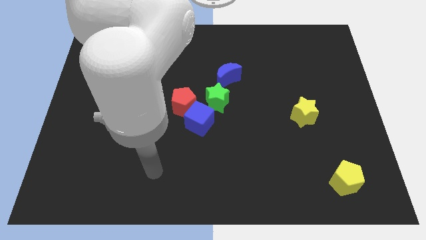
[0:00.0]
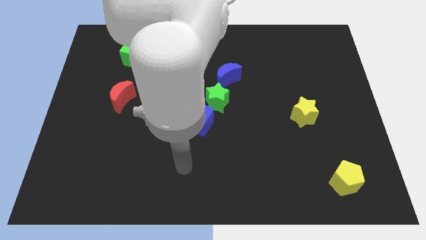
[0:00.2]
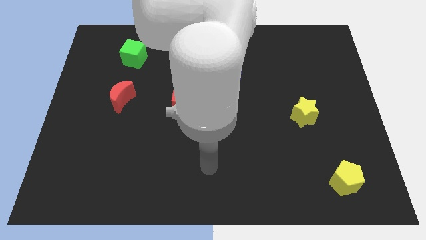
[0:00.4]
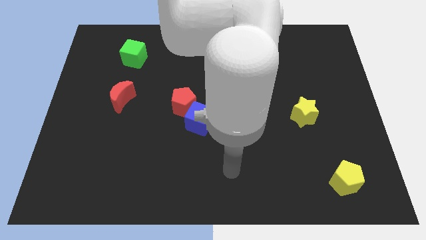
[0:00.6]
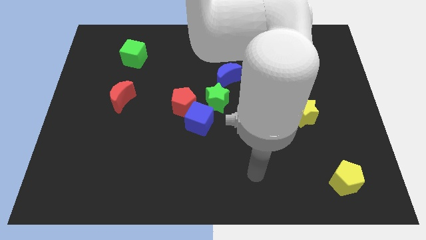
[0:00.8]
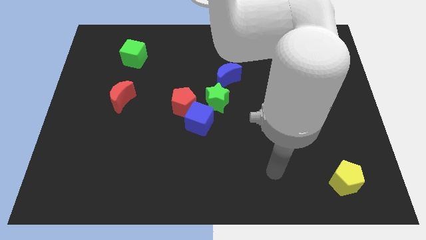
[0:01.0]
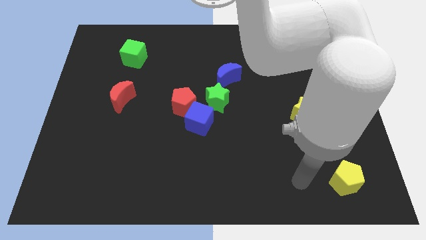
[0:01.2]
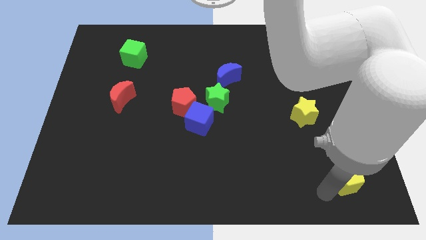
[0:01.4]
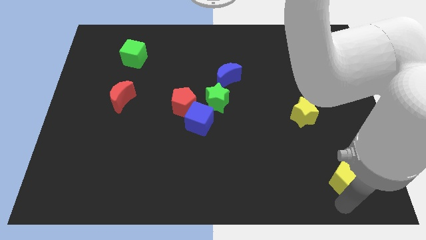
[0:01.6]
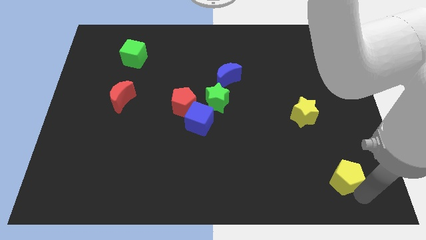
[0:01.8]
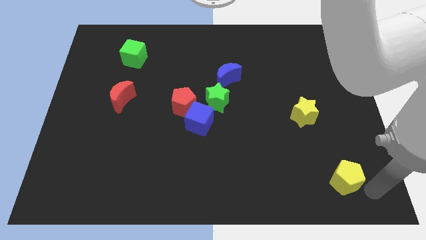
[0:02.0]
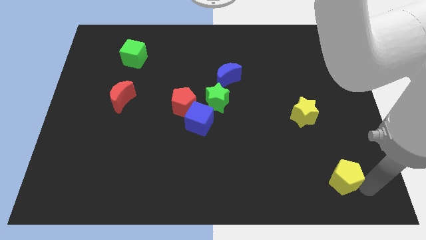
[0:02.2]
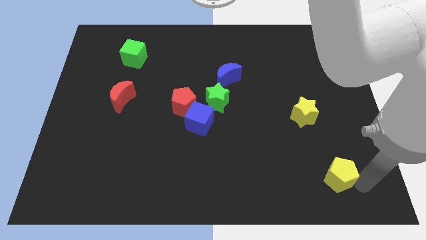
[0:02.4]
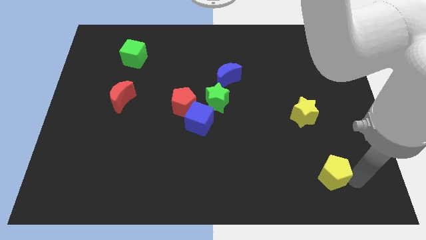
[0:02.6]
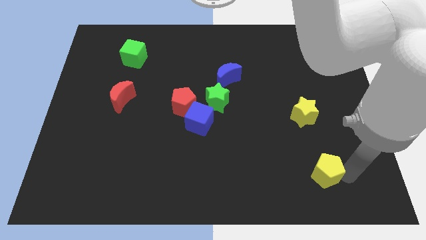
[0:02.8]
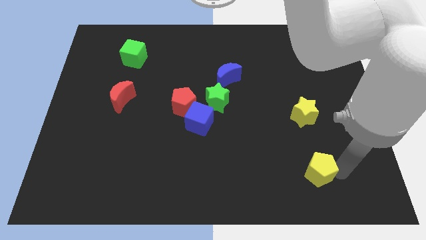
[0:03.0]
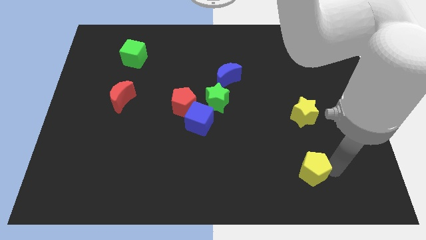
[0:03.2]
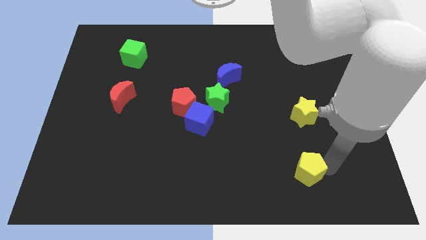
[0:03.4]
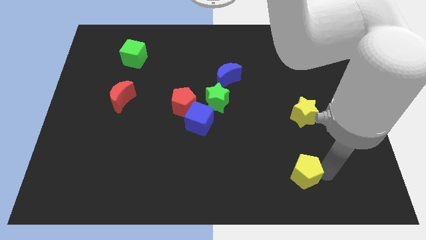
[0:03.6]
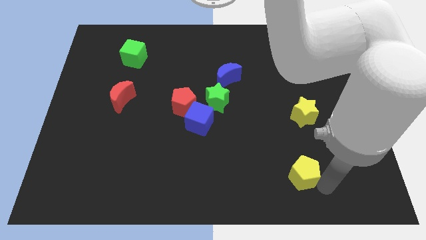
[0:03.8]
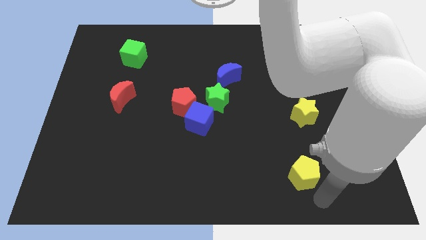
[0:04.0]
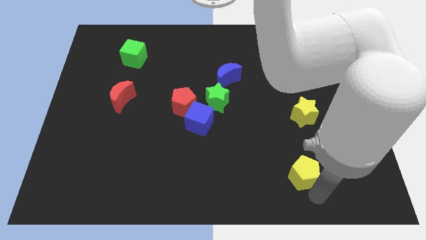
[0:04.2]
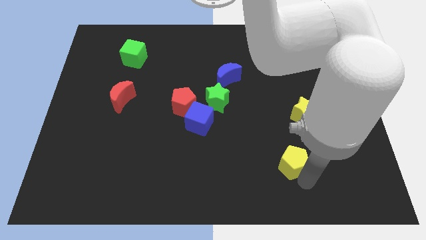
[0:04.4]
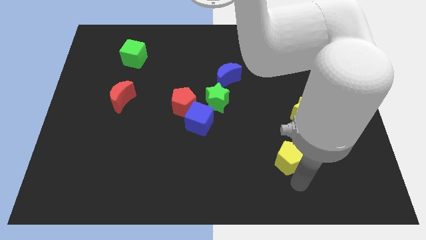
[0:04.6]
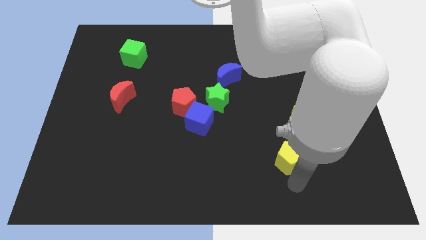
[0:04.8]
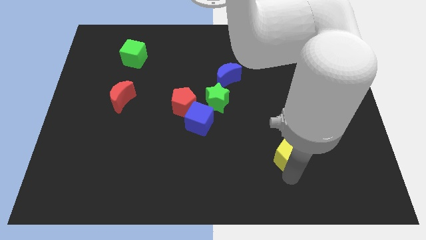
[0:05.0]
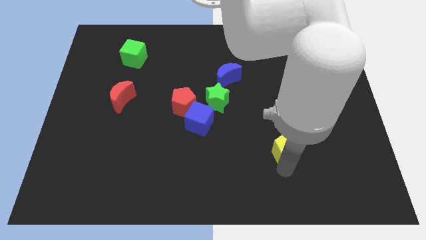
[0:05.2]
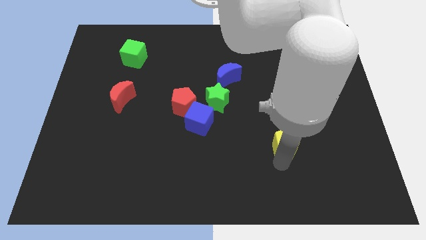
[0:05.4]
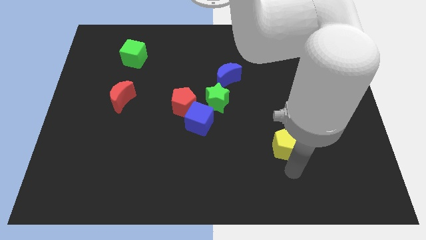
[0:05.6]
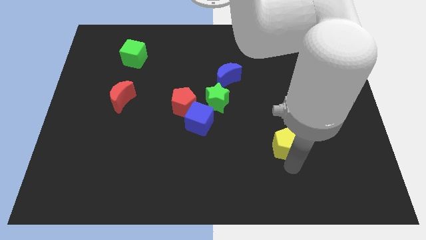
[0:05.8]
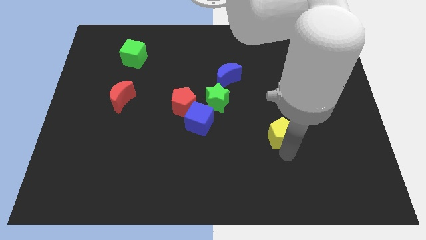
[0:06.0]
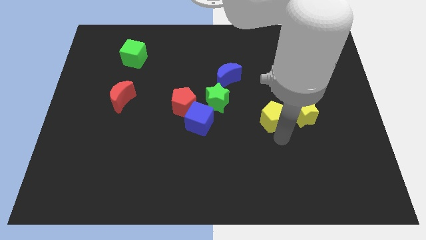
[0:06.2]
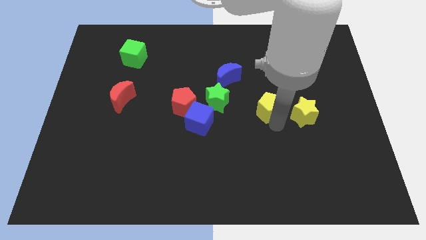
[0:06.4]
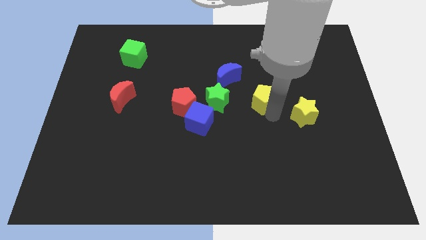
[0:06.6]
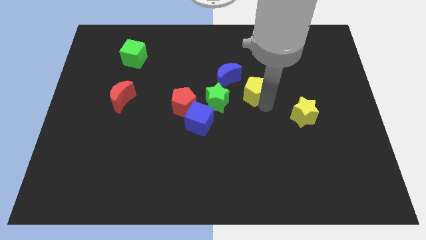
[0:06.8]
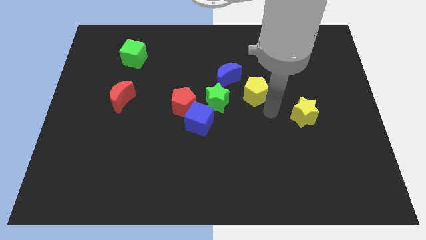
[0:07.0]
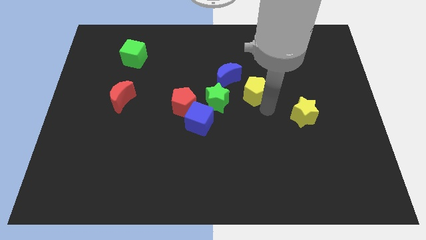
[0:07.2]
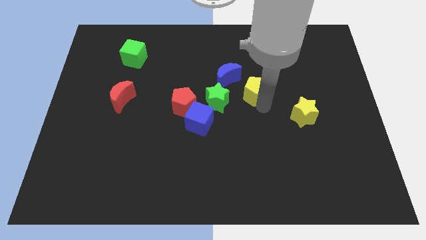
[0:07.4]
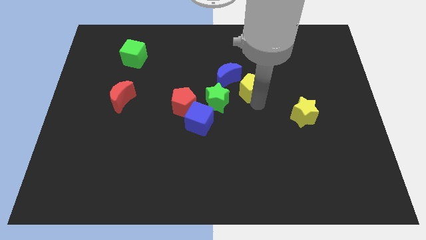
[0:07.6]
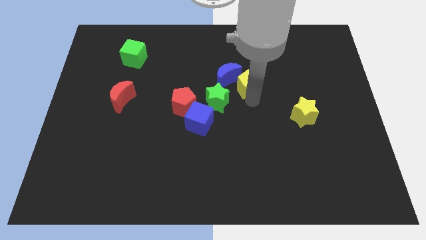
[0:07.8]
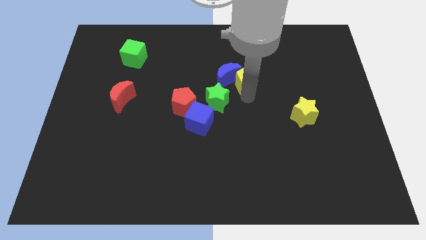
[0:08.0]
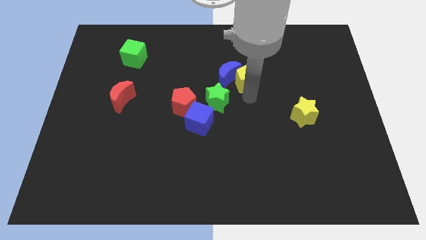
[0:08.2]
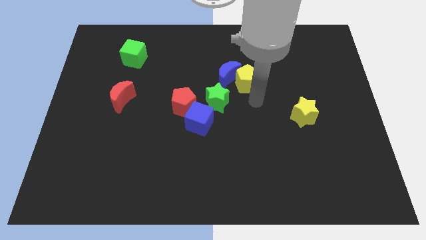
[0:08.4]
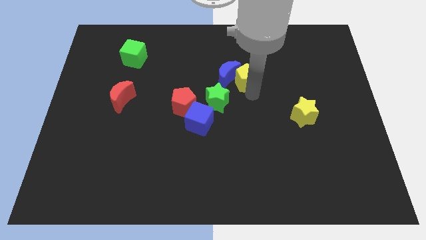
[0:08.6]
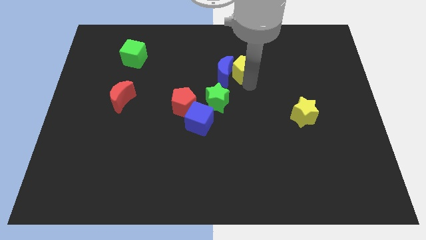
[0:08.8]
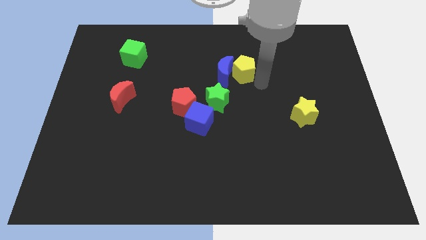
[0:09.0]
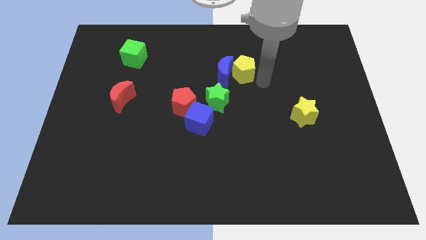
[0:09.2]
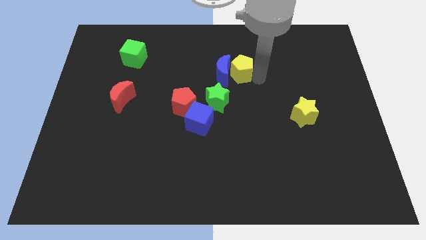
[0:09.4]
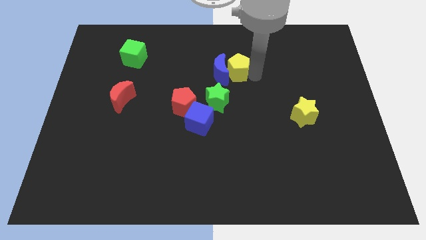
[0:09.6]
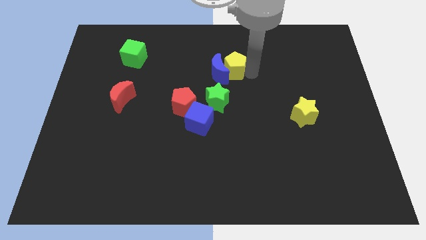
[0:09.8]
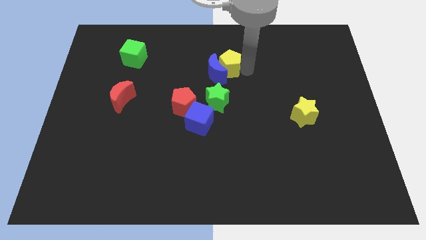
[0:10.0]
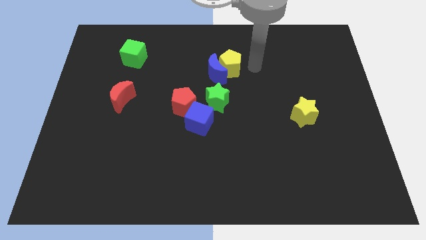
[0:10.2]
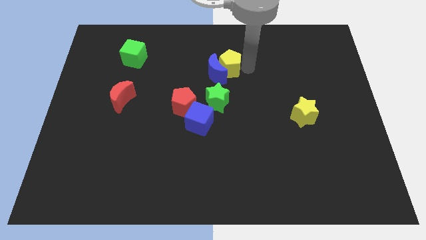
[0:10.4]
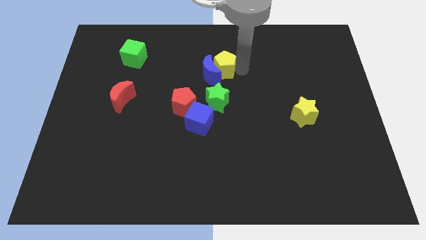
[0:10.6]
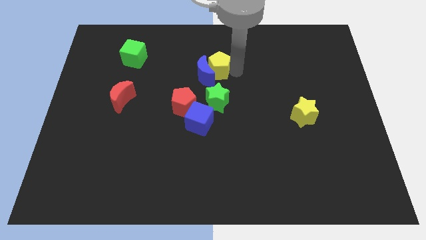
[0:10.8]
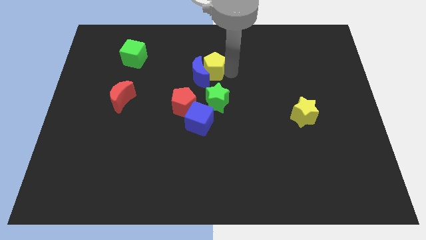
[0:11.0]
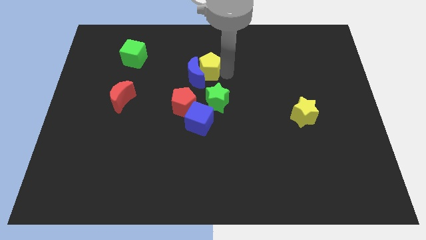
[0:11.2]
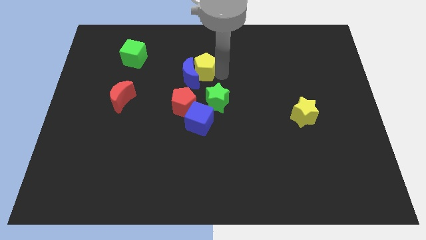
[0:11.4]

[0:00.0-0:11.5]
slide the yellow pentagon to the top of the red pentagon

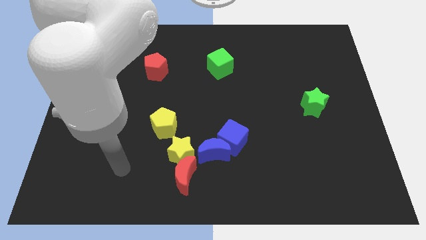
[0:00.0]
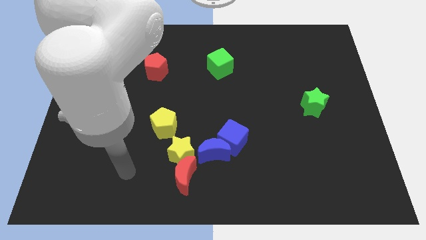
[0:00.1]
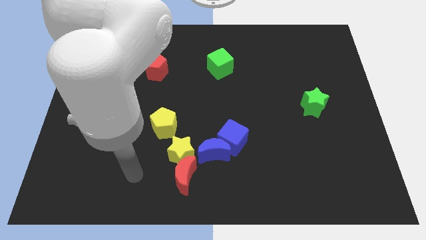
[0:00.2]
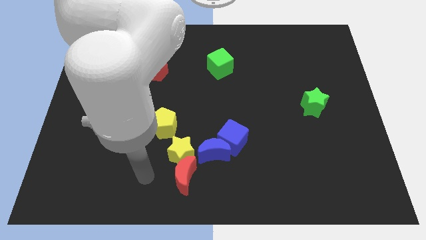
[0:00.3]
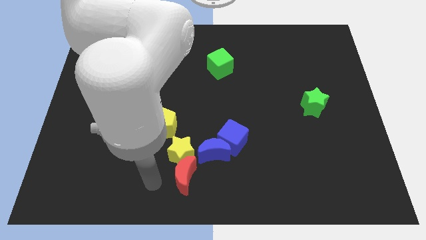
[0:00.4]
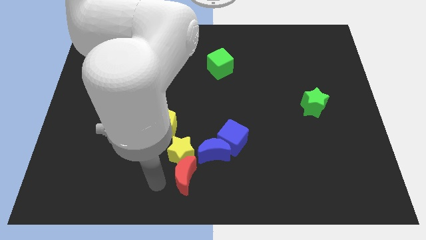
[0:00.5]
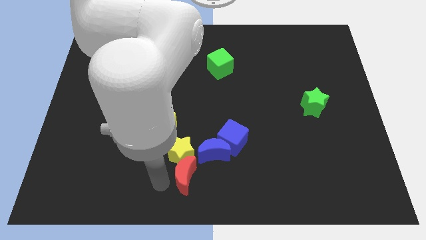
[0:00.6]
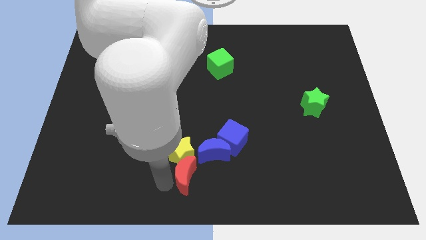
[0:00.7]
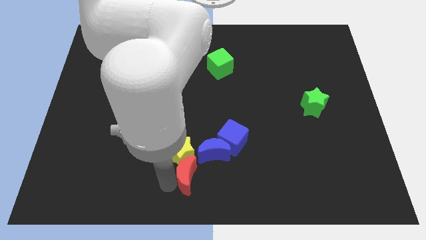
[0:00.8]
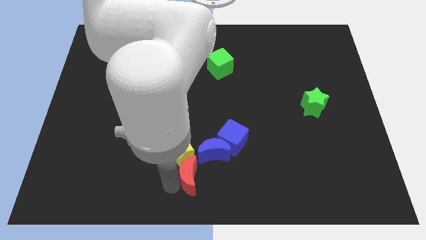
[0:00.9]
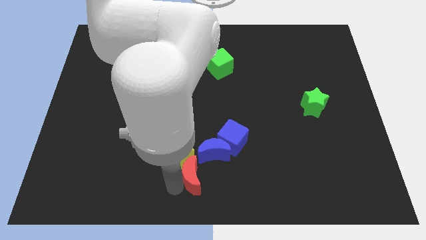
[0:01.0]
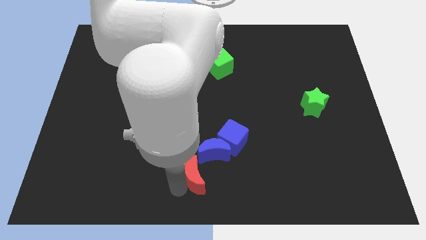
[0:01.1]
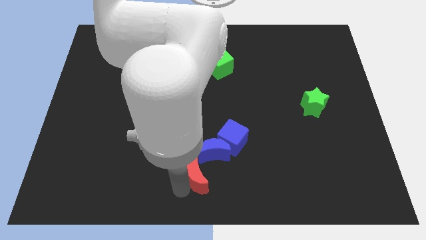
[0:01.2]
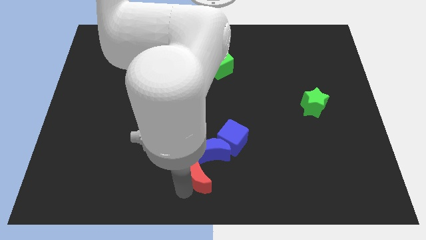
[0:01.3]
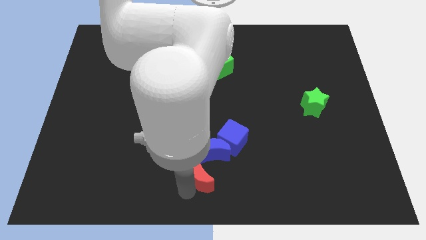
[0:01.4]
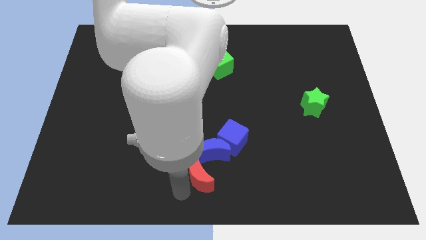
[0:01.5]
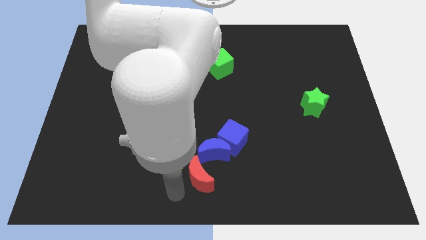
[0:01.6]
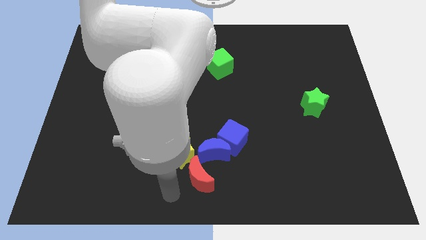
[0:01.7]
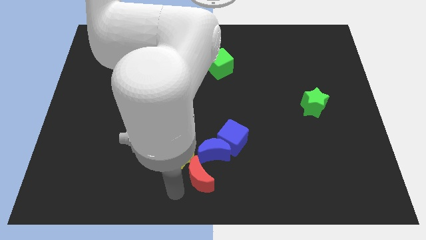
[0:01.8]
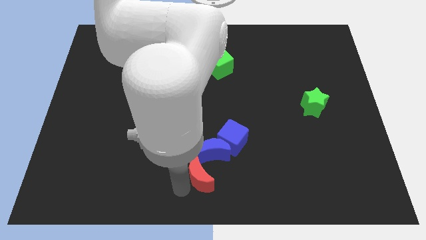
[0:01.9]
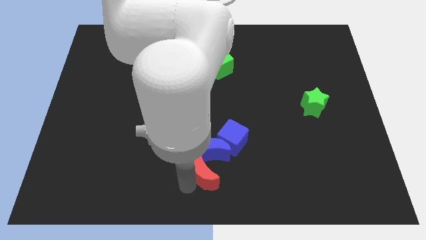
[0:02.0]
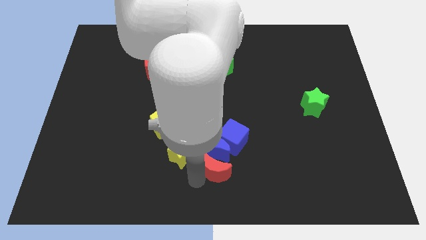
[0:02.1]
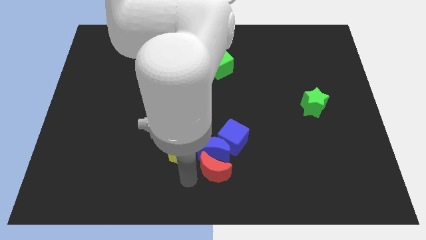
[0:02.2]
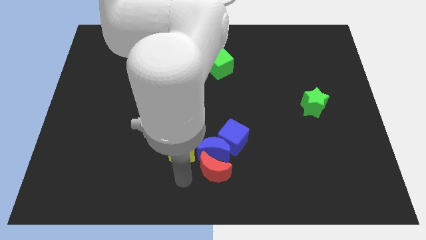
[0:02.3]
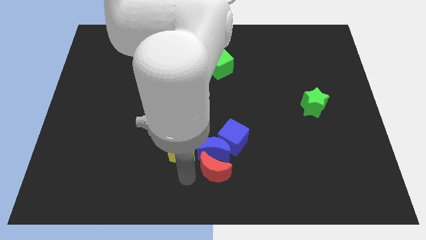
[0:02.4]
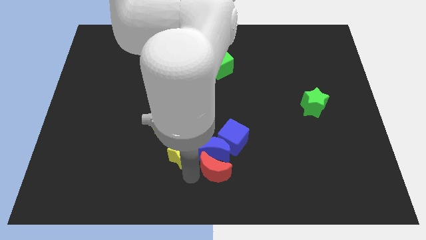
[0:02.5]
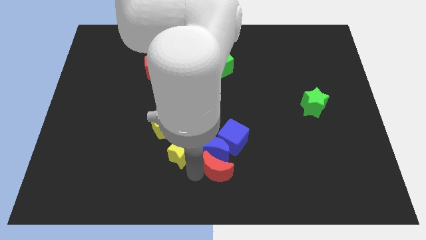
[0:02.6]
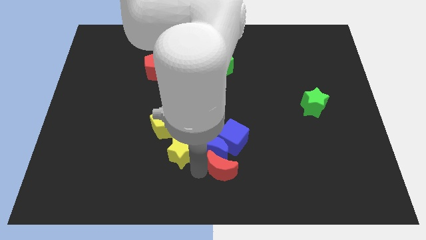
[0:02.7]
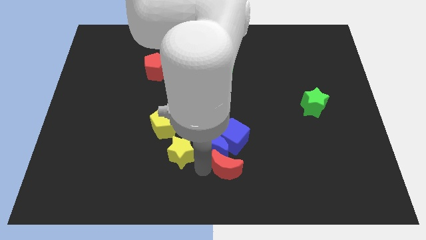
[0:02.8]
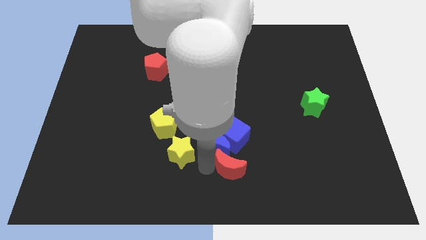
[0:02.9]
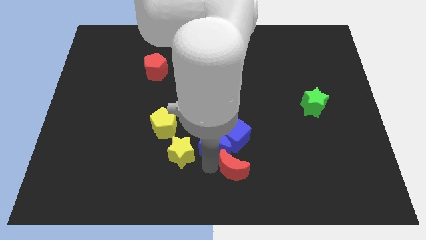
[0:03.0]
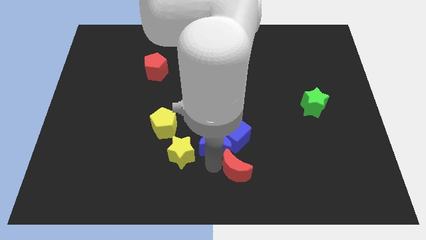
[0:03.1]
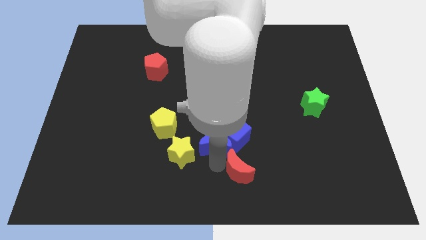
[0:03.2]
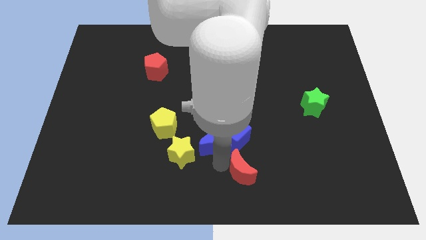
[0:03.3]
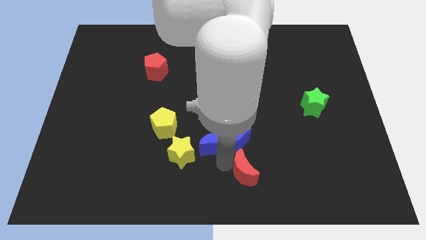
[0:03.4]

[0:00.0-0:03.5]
slide the red moon diagonally down and to the right of the blue cube
